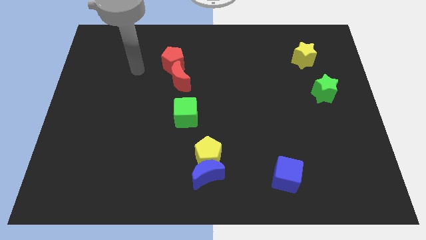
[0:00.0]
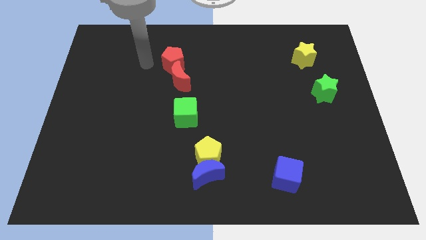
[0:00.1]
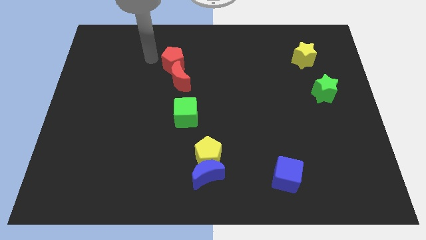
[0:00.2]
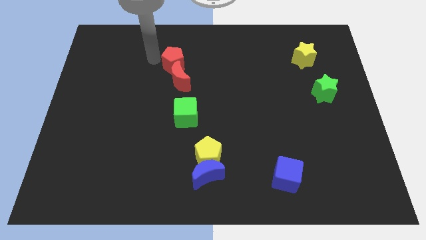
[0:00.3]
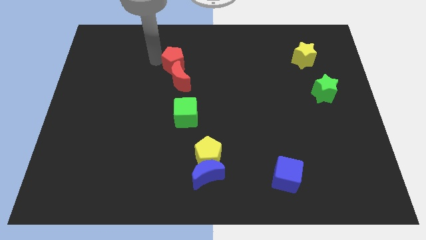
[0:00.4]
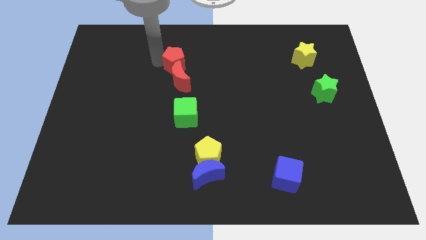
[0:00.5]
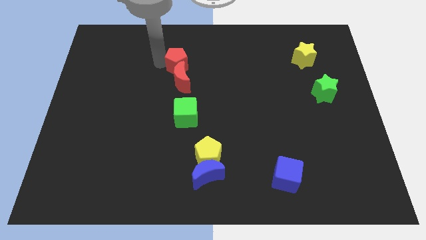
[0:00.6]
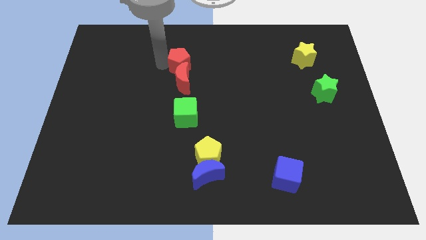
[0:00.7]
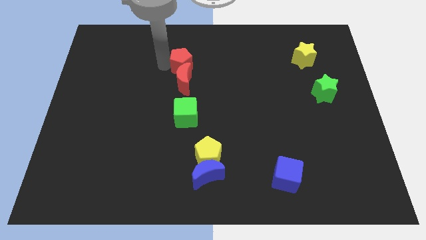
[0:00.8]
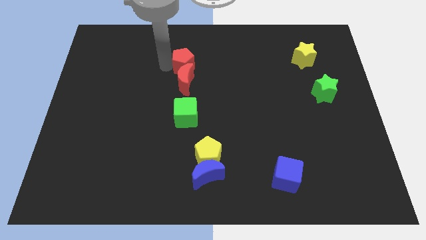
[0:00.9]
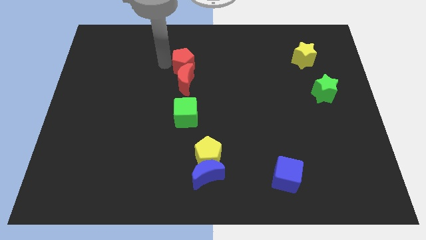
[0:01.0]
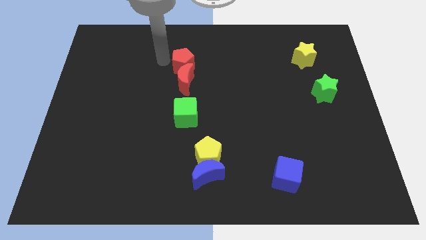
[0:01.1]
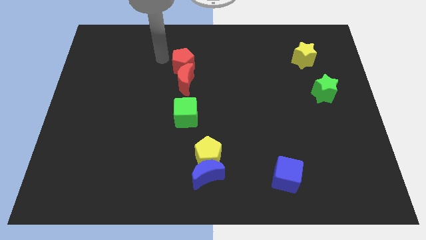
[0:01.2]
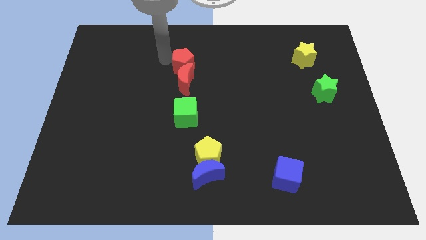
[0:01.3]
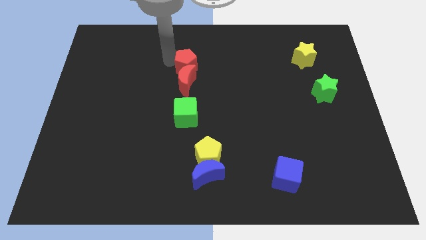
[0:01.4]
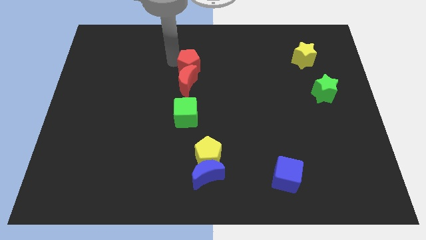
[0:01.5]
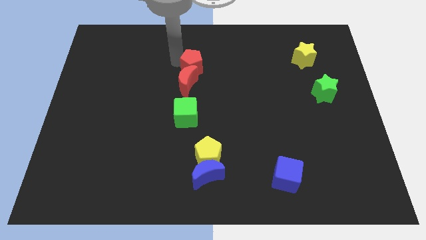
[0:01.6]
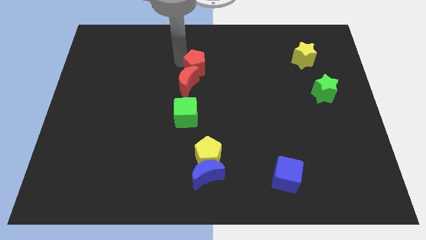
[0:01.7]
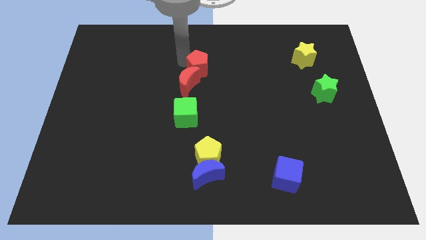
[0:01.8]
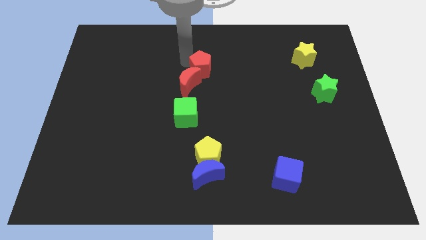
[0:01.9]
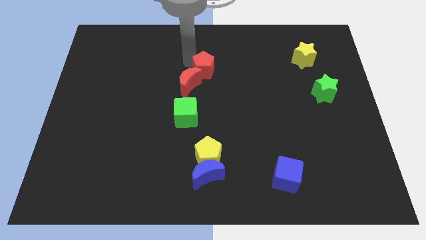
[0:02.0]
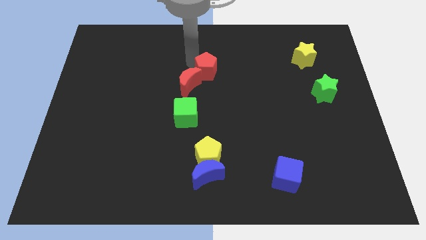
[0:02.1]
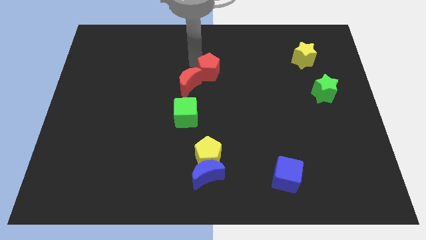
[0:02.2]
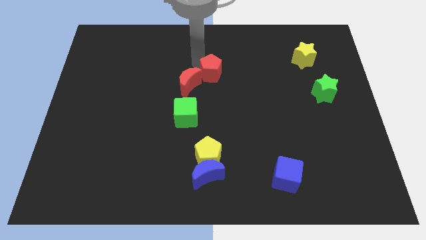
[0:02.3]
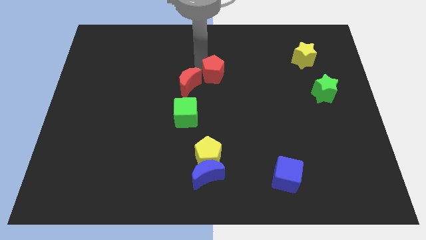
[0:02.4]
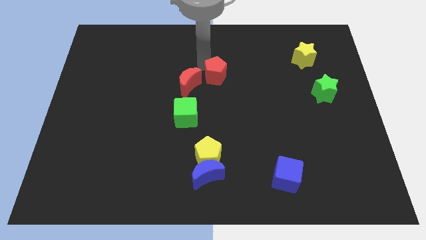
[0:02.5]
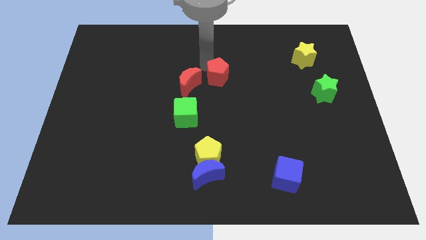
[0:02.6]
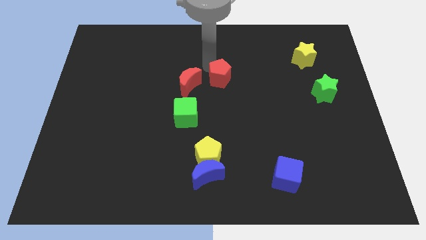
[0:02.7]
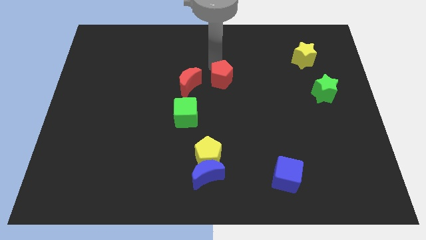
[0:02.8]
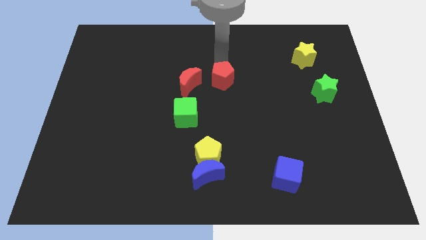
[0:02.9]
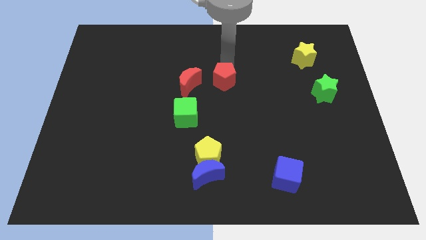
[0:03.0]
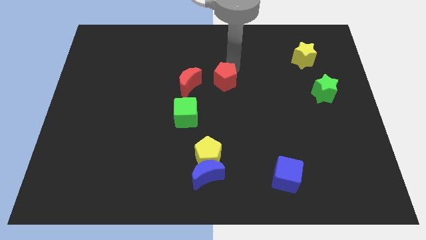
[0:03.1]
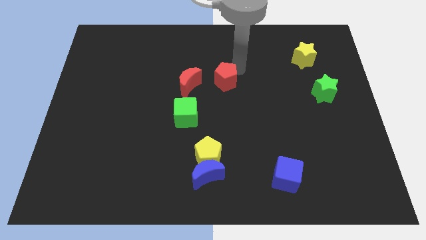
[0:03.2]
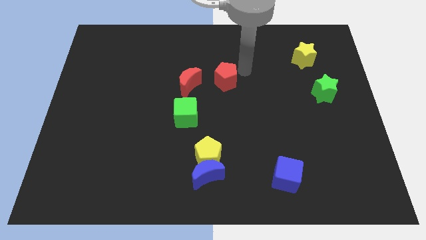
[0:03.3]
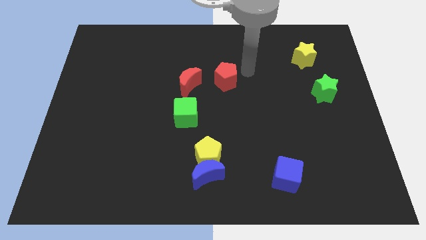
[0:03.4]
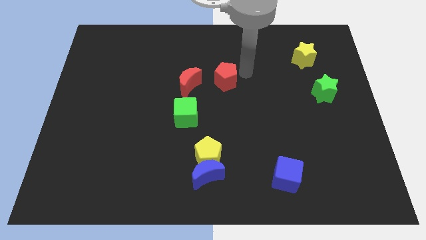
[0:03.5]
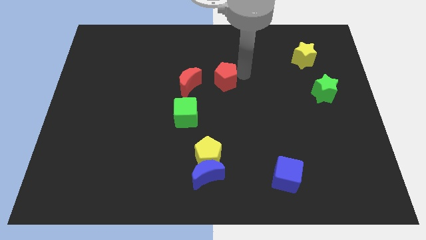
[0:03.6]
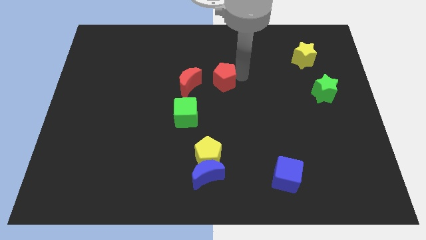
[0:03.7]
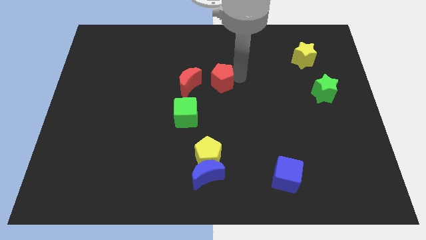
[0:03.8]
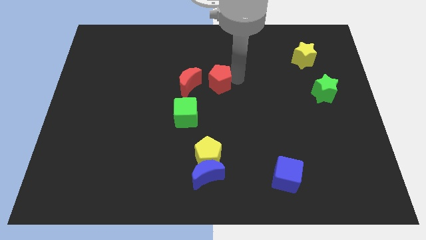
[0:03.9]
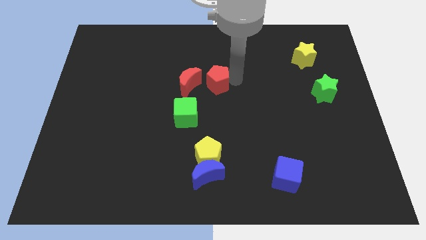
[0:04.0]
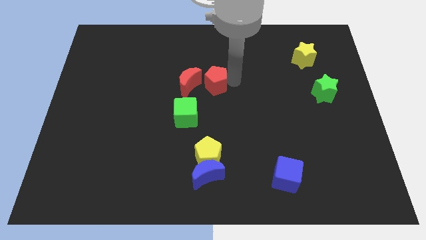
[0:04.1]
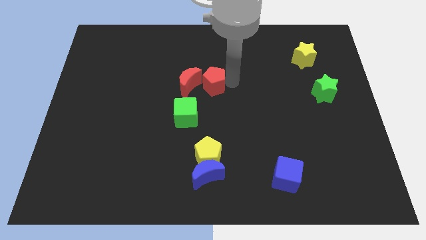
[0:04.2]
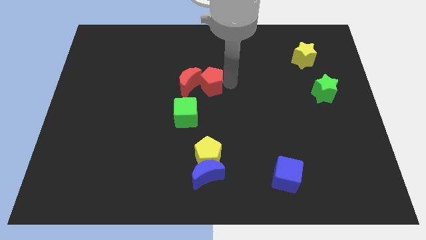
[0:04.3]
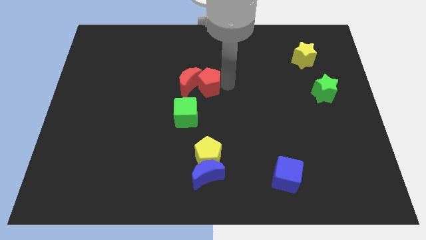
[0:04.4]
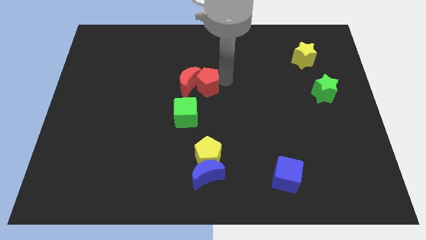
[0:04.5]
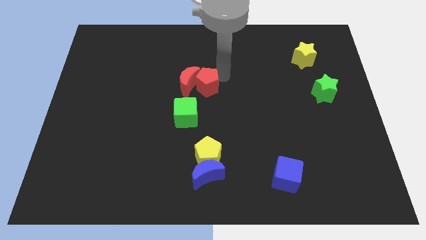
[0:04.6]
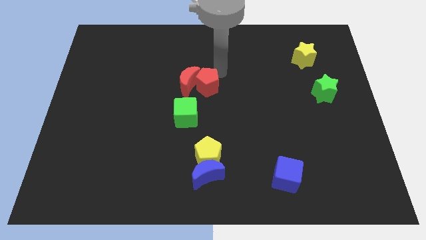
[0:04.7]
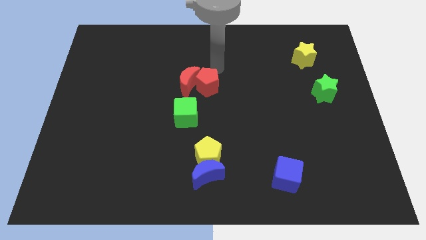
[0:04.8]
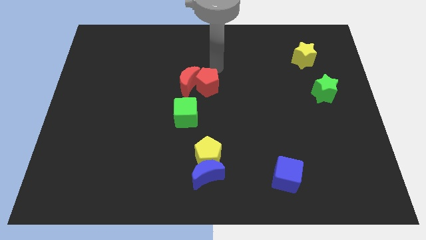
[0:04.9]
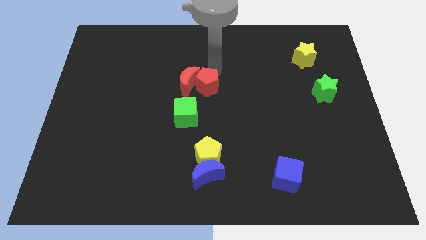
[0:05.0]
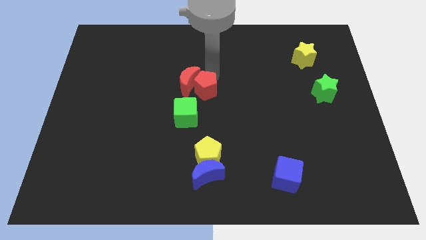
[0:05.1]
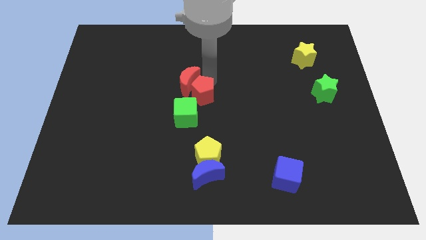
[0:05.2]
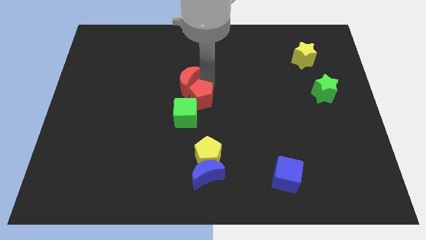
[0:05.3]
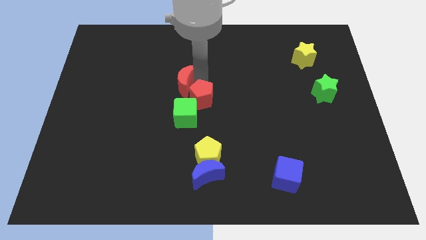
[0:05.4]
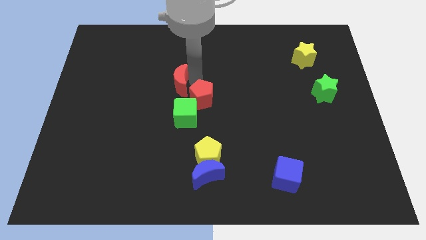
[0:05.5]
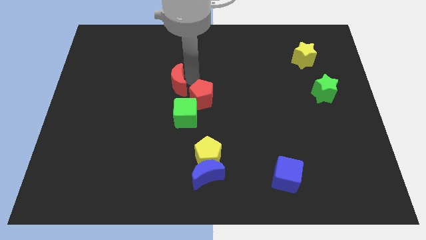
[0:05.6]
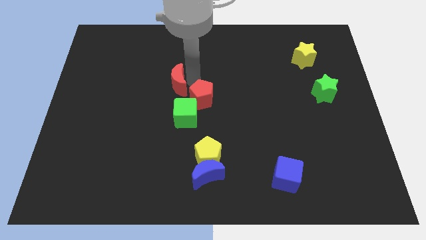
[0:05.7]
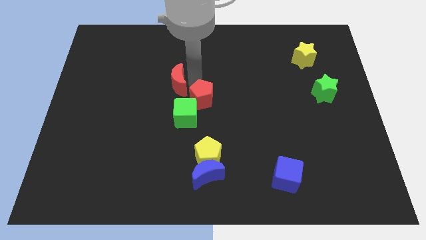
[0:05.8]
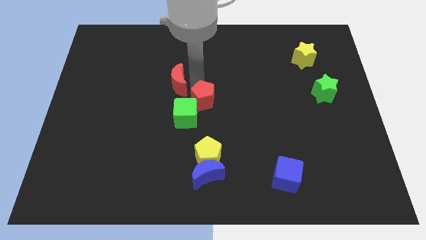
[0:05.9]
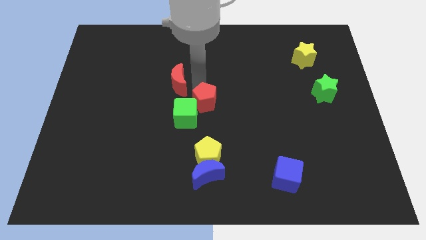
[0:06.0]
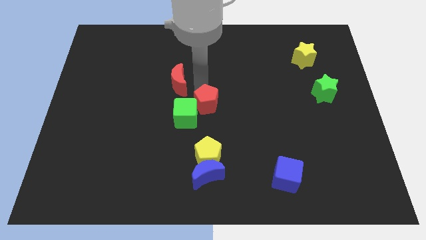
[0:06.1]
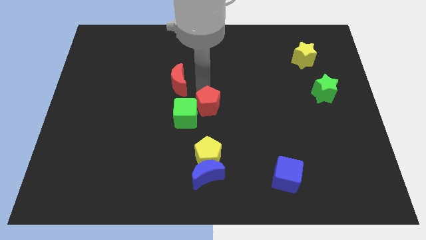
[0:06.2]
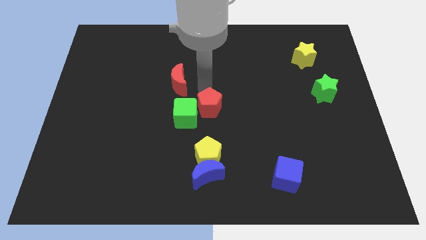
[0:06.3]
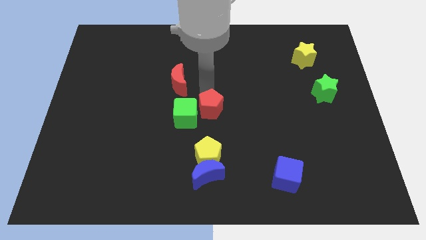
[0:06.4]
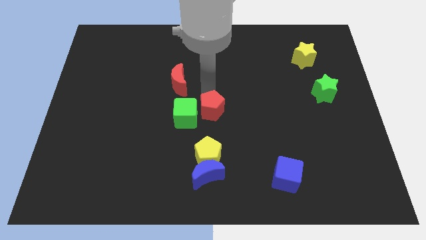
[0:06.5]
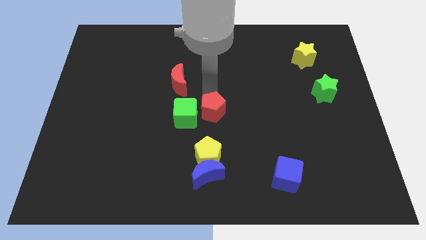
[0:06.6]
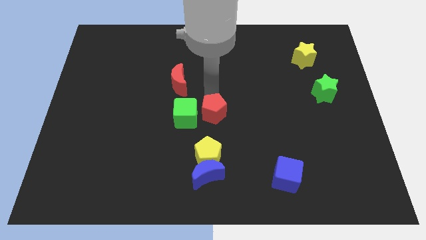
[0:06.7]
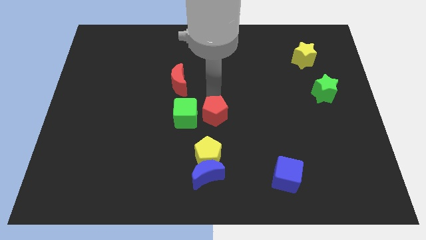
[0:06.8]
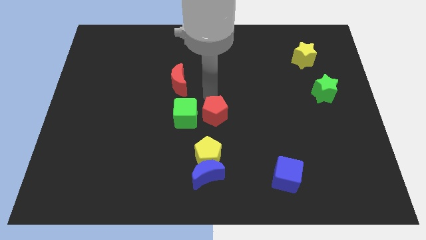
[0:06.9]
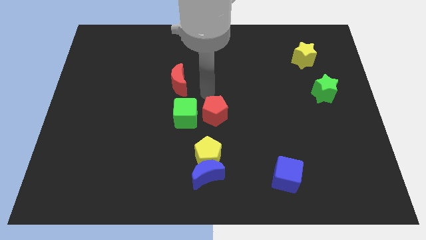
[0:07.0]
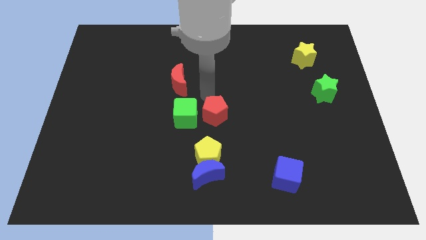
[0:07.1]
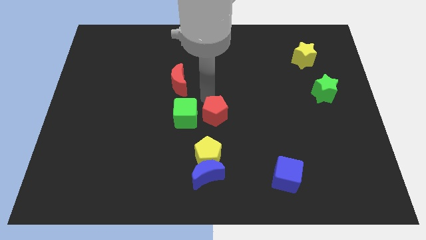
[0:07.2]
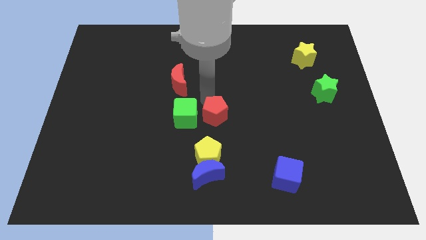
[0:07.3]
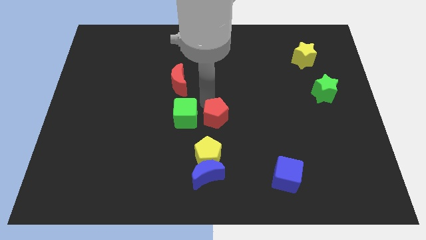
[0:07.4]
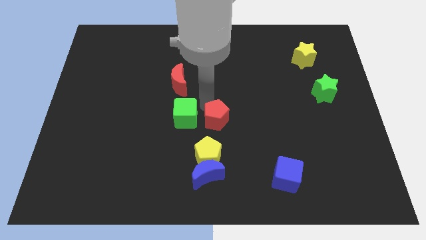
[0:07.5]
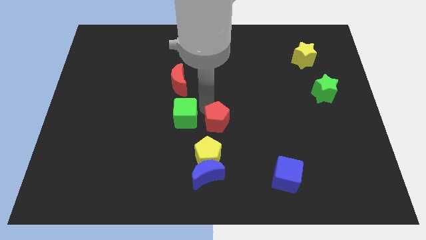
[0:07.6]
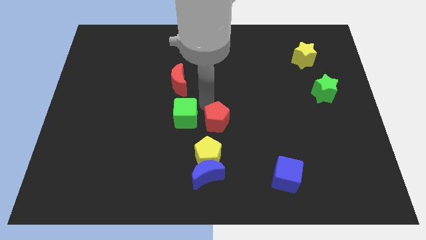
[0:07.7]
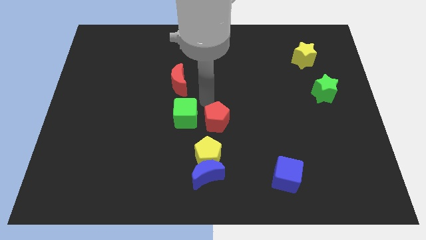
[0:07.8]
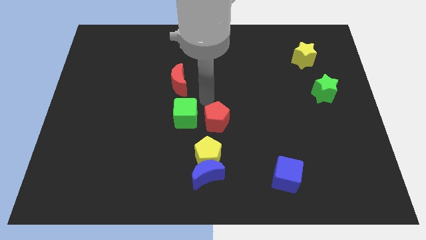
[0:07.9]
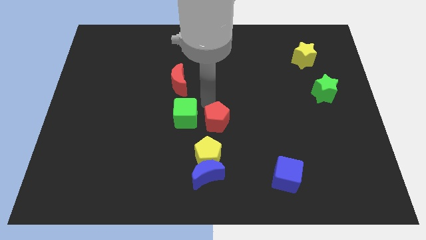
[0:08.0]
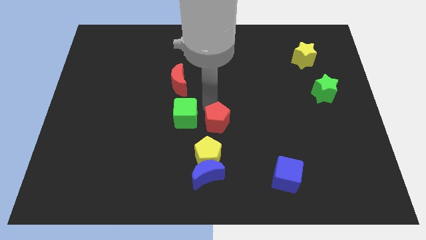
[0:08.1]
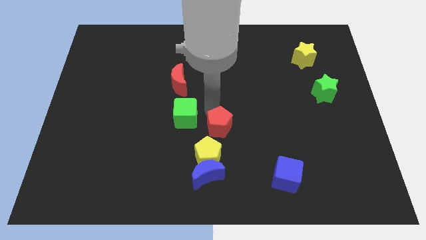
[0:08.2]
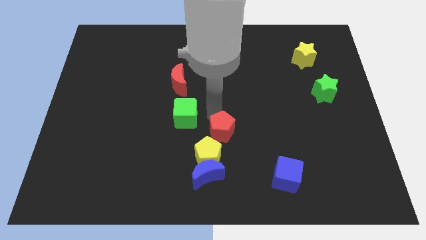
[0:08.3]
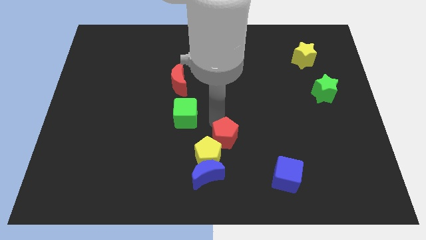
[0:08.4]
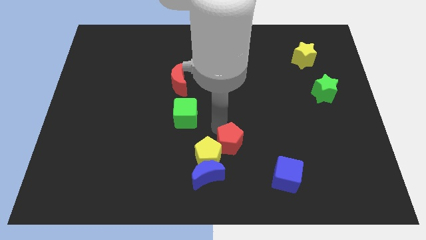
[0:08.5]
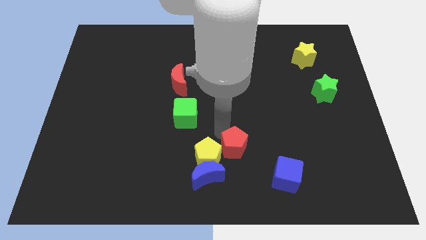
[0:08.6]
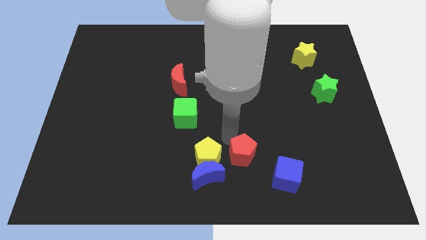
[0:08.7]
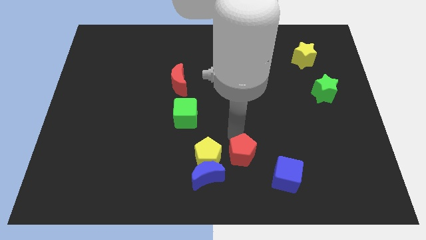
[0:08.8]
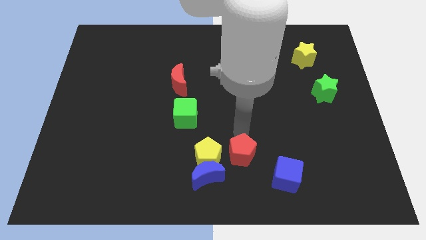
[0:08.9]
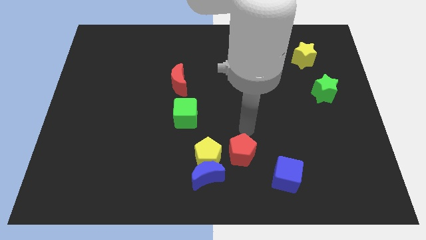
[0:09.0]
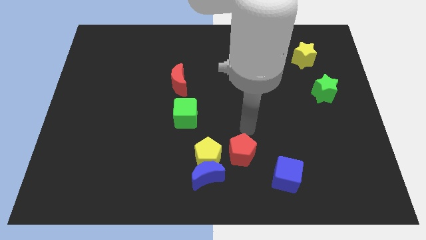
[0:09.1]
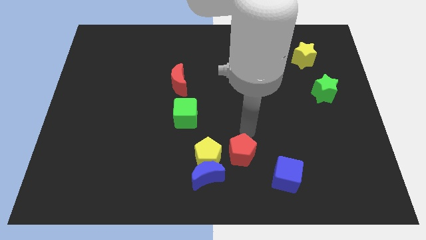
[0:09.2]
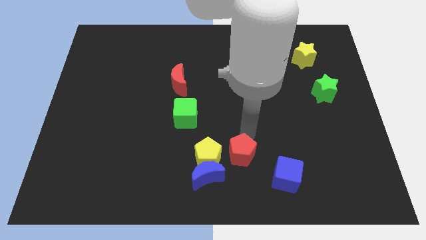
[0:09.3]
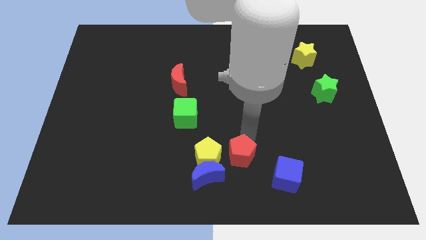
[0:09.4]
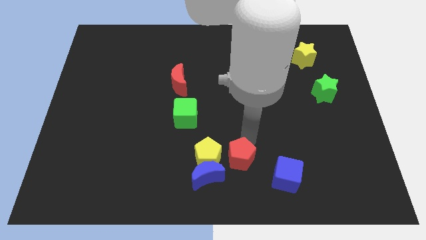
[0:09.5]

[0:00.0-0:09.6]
put the red pentagon to the bottom right side of the yellow pentagon
